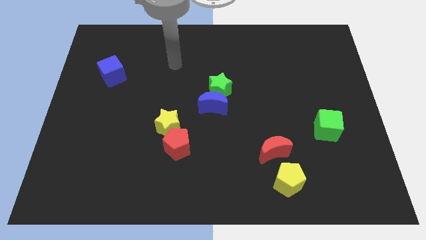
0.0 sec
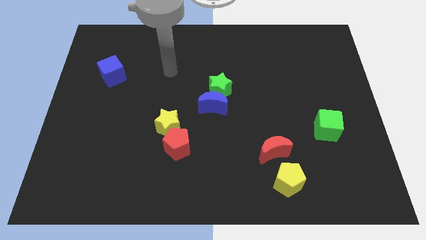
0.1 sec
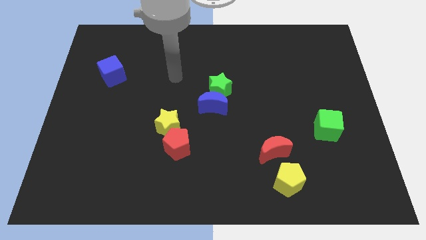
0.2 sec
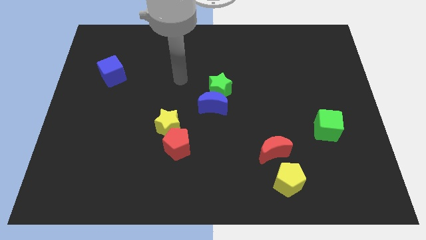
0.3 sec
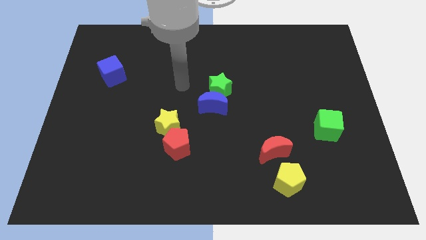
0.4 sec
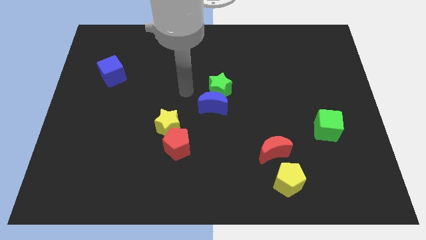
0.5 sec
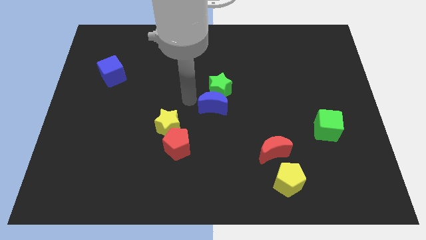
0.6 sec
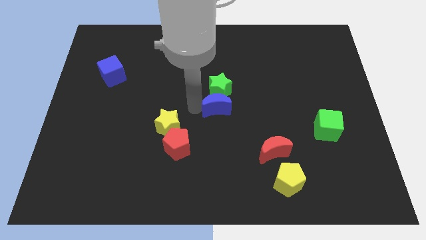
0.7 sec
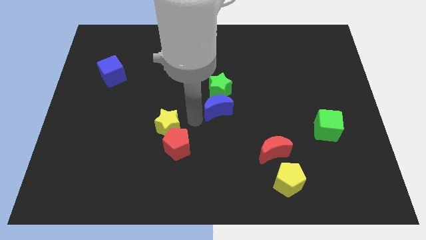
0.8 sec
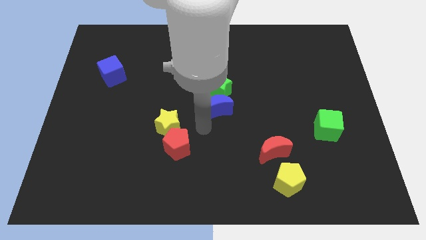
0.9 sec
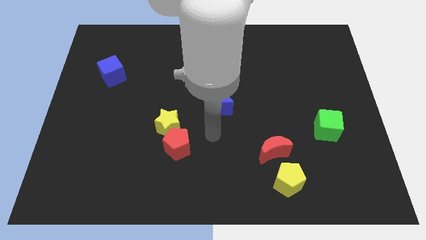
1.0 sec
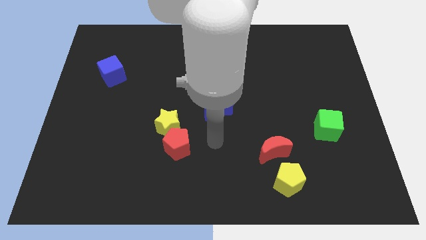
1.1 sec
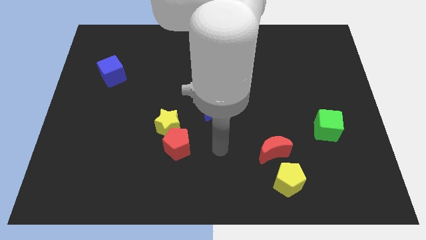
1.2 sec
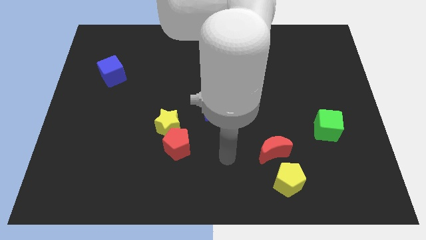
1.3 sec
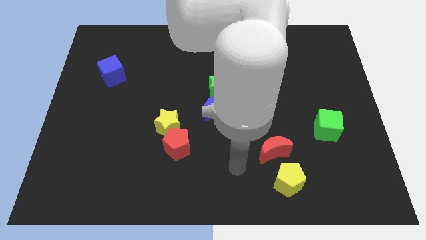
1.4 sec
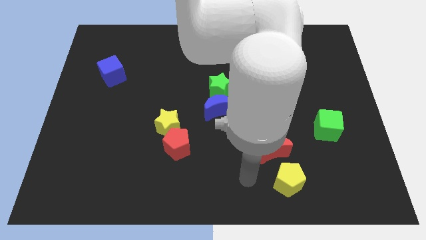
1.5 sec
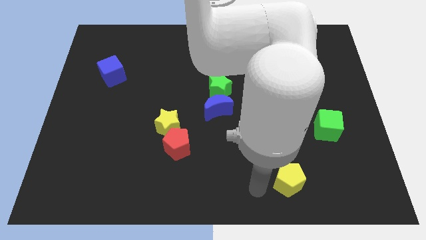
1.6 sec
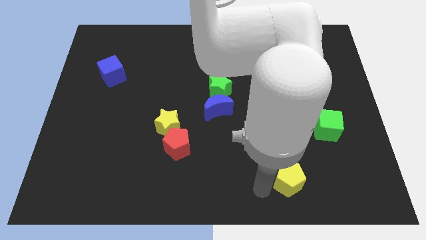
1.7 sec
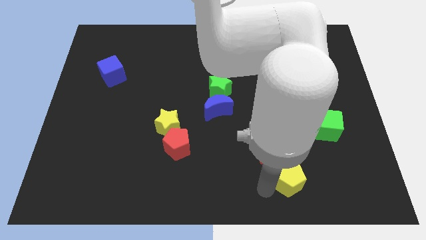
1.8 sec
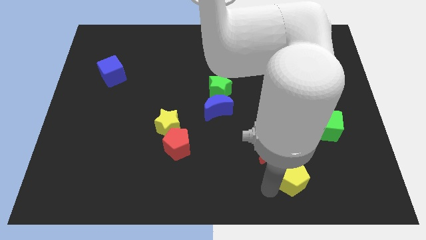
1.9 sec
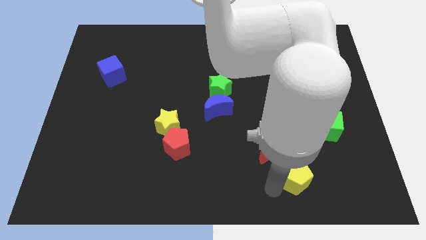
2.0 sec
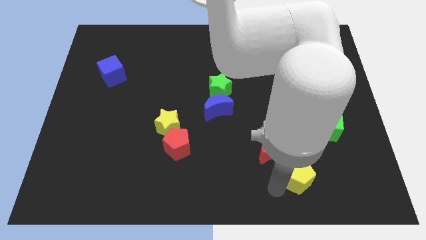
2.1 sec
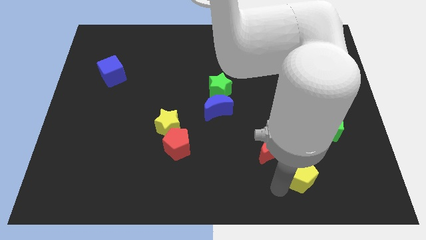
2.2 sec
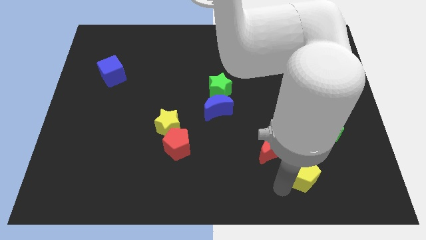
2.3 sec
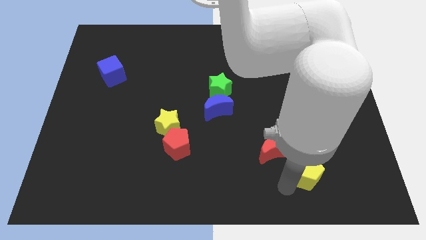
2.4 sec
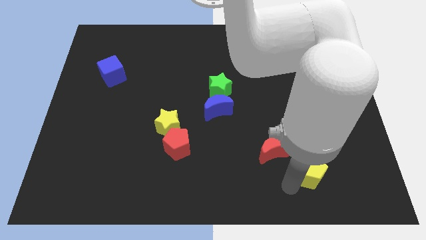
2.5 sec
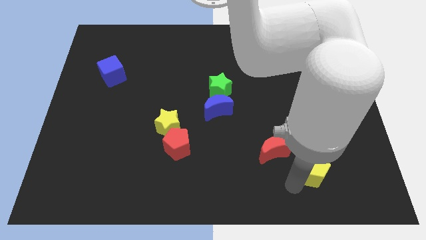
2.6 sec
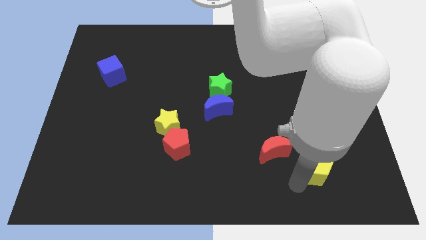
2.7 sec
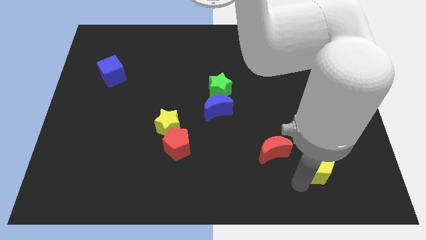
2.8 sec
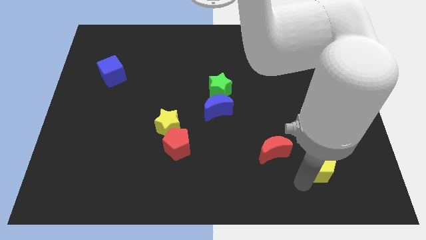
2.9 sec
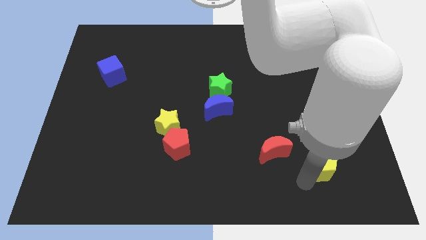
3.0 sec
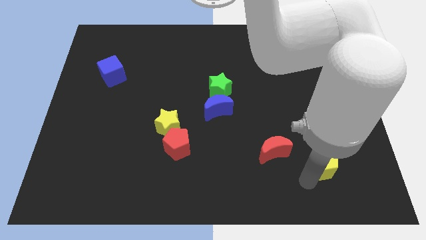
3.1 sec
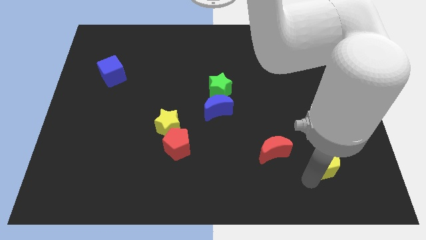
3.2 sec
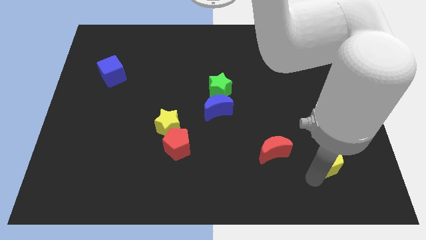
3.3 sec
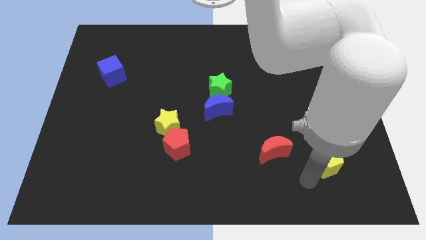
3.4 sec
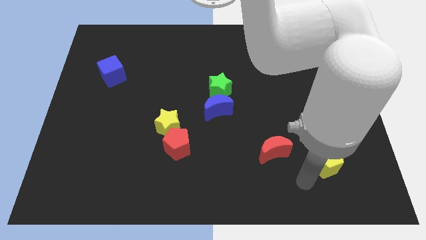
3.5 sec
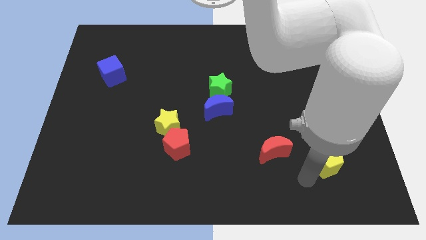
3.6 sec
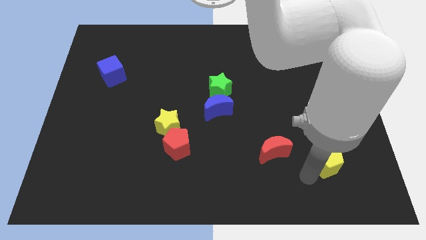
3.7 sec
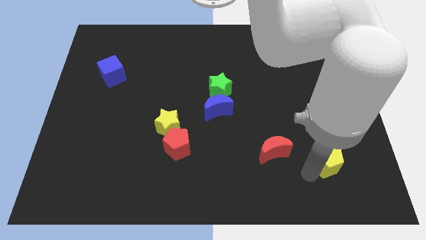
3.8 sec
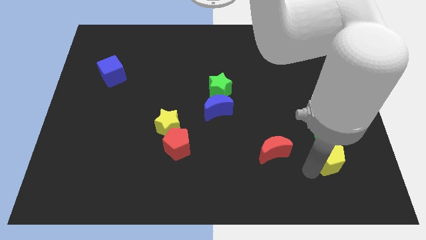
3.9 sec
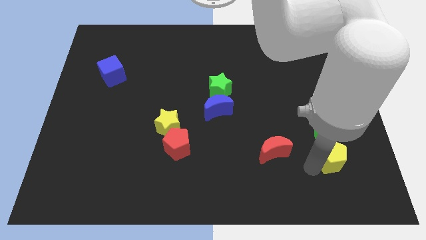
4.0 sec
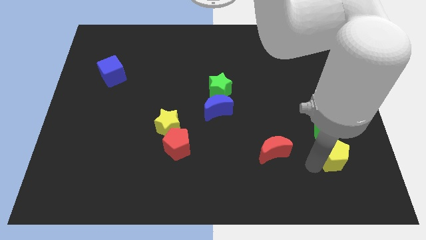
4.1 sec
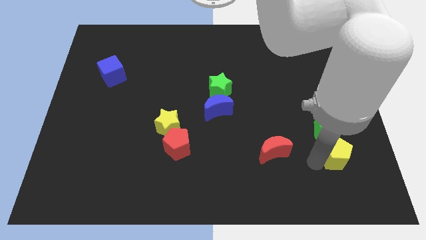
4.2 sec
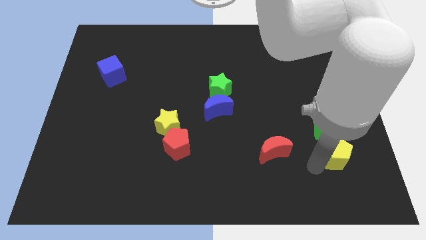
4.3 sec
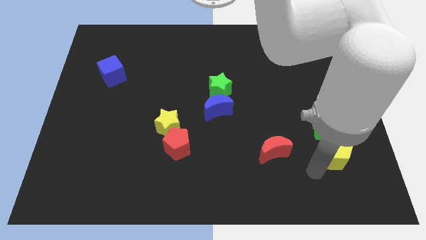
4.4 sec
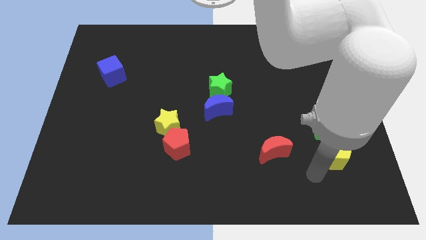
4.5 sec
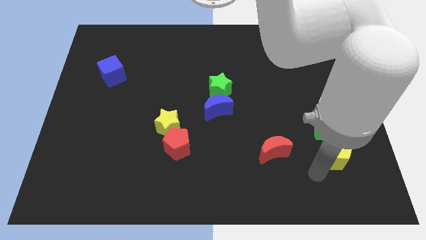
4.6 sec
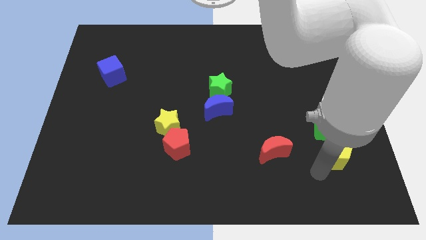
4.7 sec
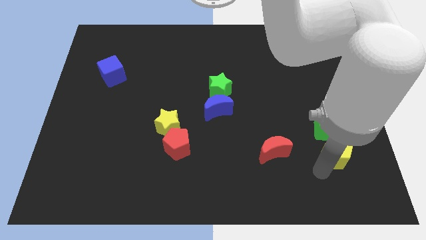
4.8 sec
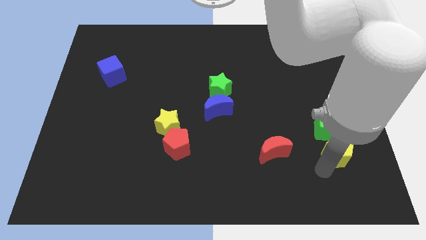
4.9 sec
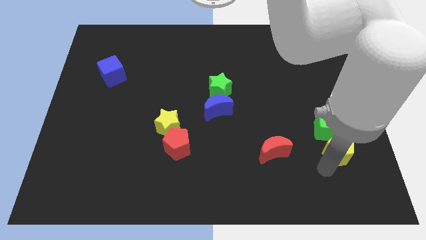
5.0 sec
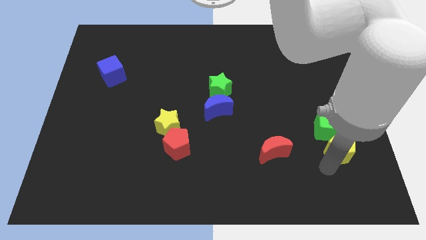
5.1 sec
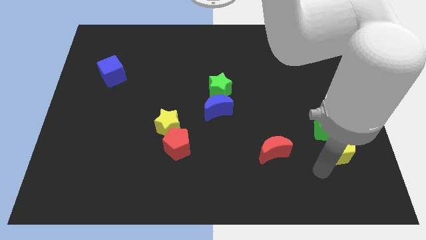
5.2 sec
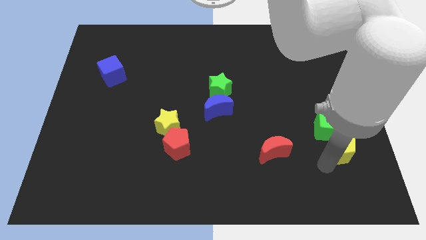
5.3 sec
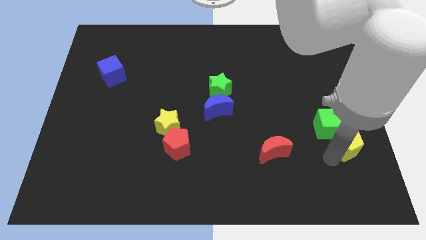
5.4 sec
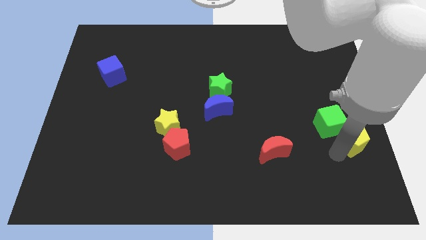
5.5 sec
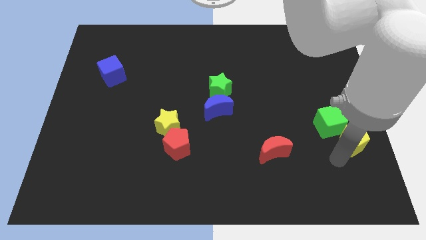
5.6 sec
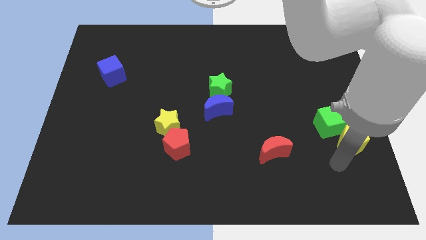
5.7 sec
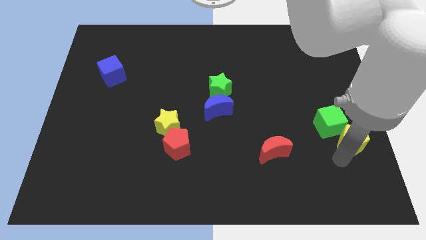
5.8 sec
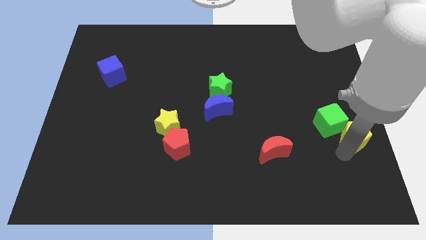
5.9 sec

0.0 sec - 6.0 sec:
push the yellow pentagon to the right side of the board
